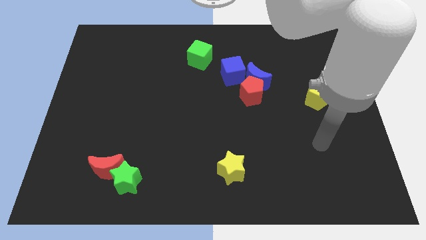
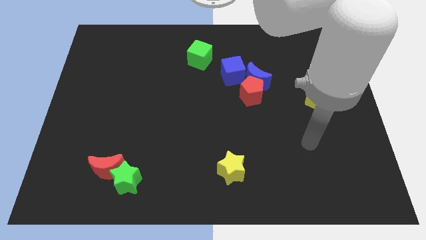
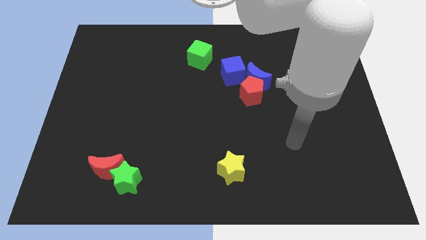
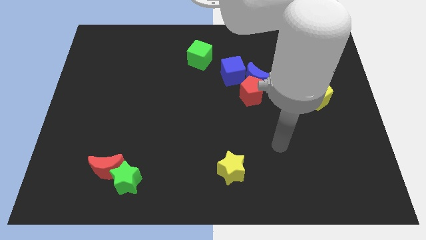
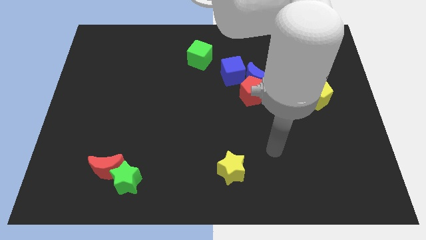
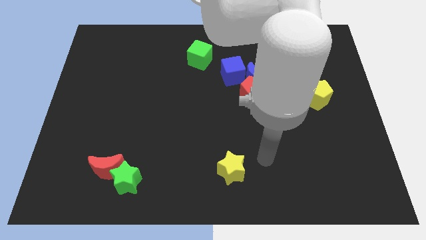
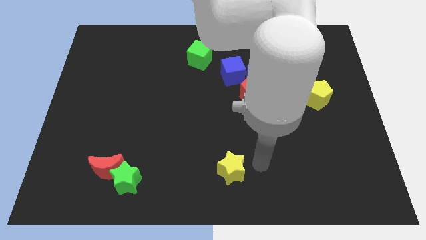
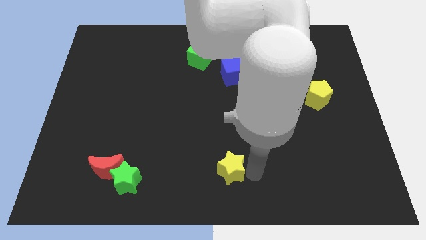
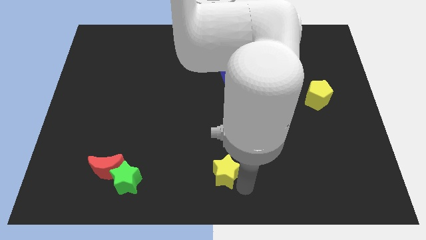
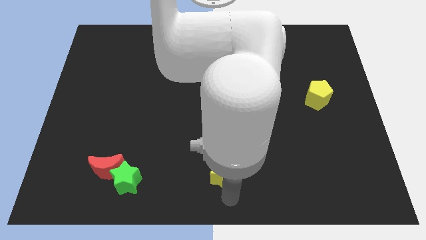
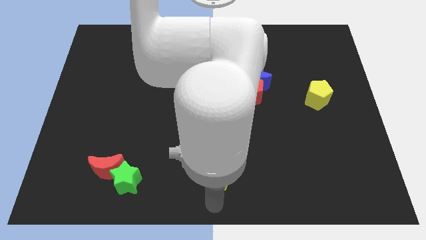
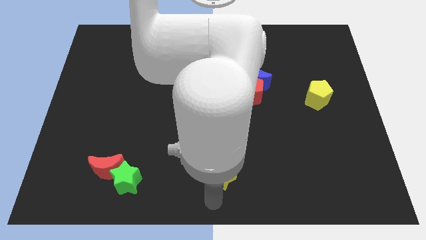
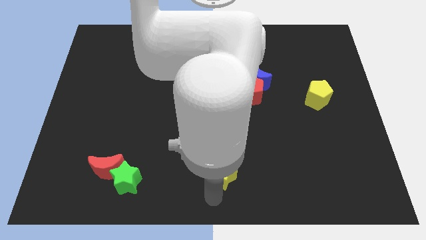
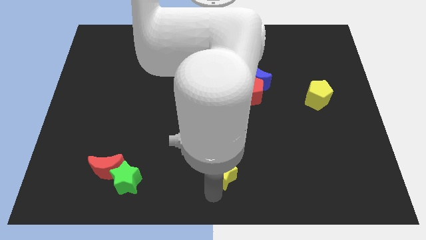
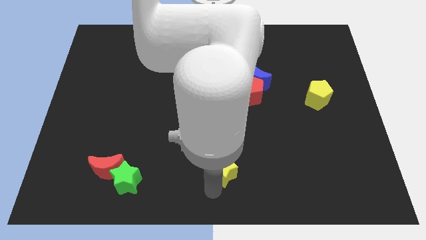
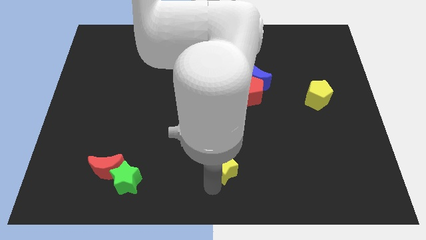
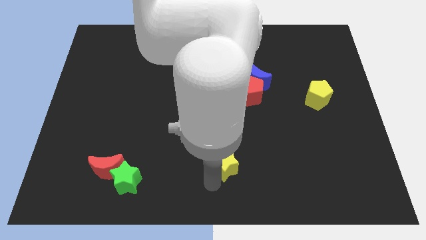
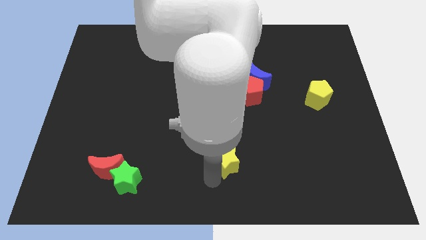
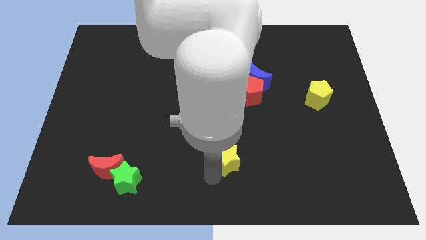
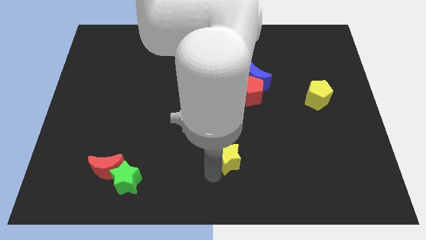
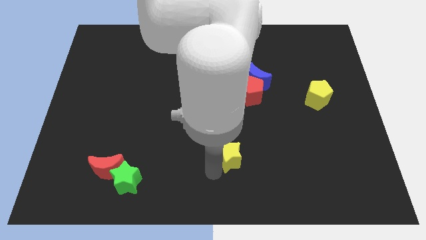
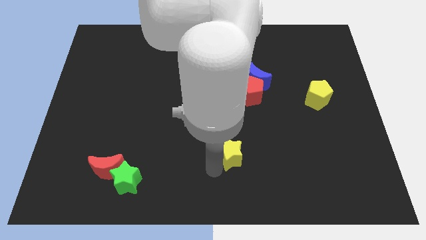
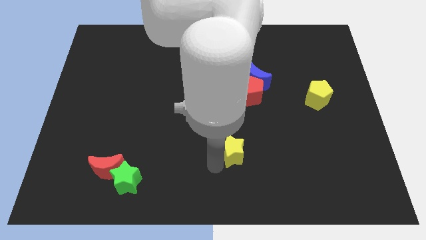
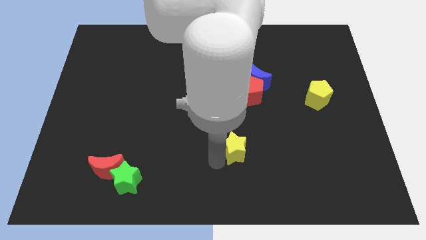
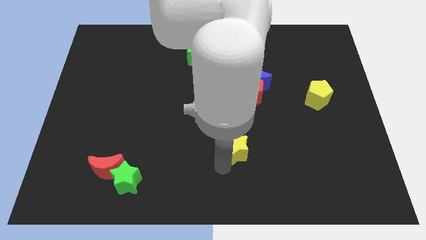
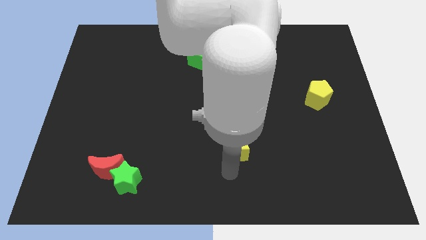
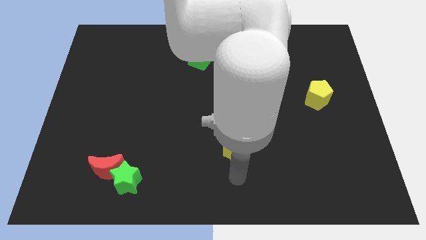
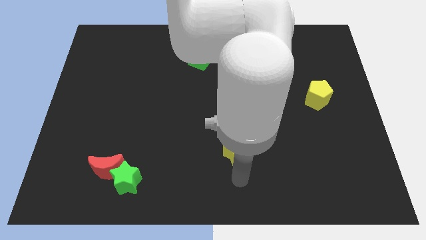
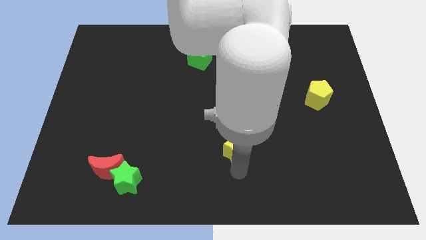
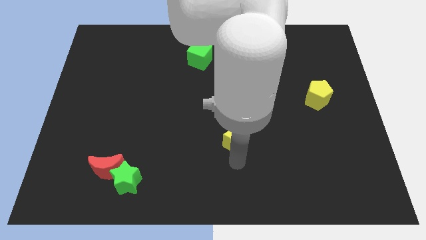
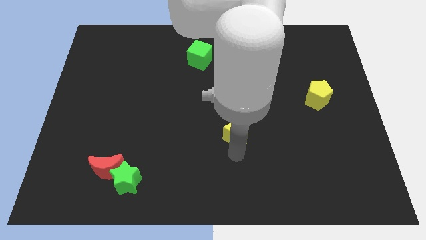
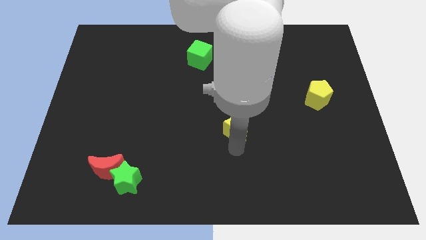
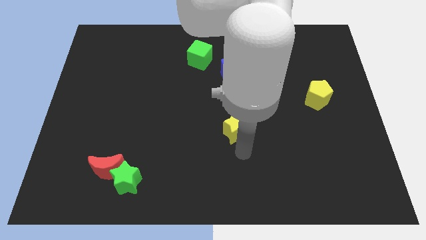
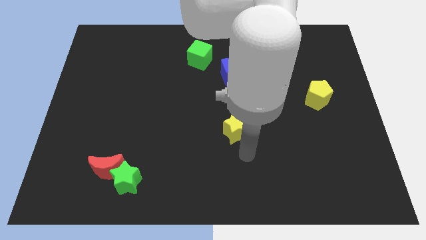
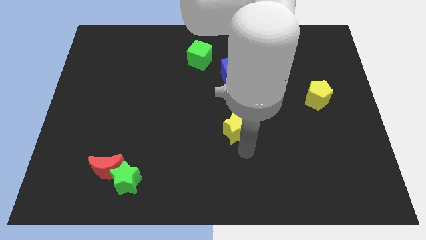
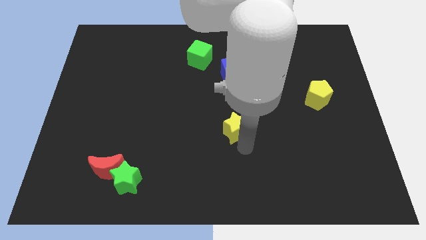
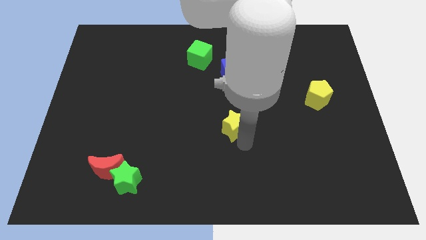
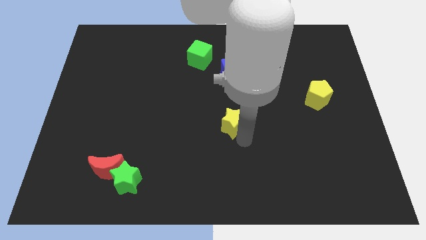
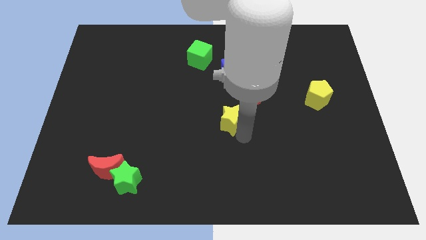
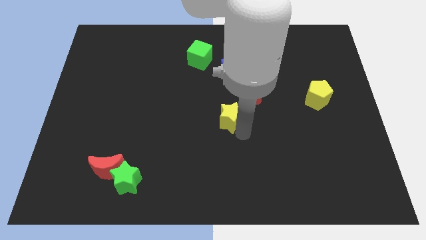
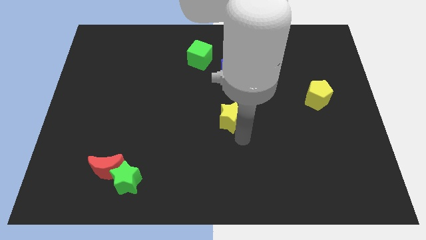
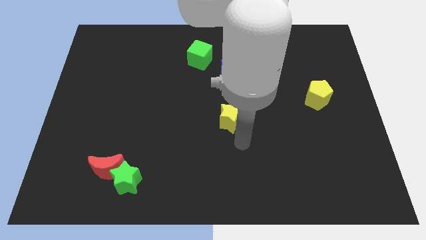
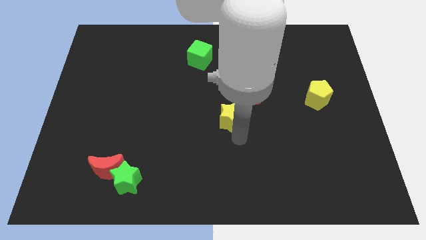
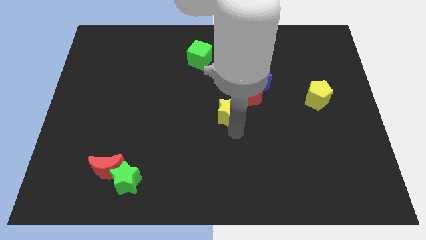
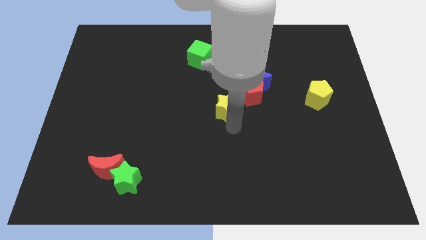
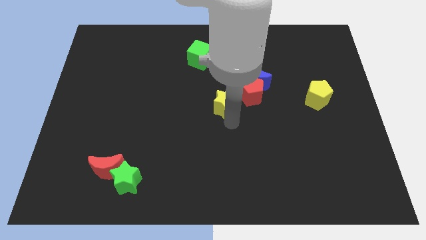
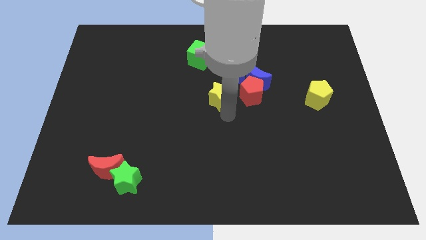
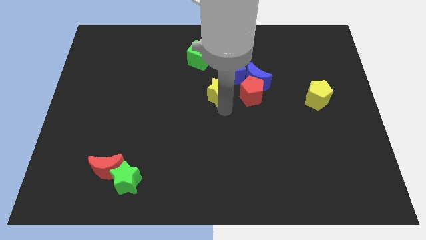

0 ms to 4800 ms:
move the yellow star up

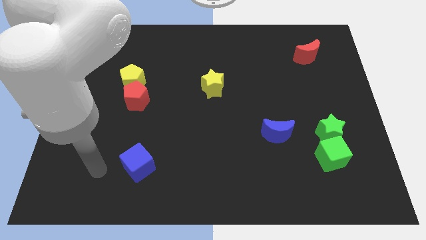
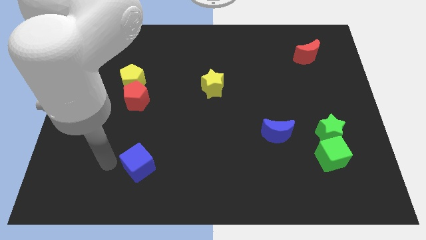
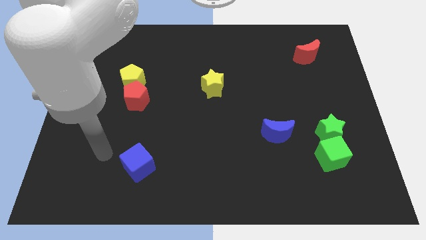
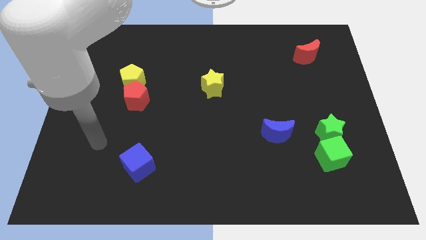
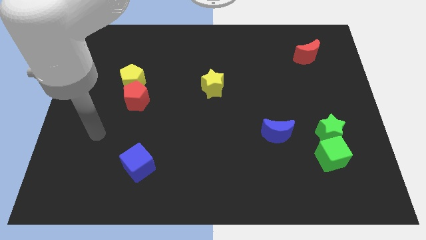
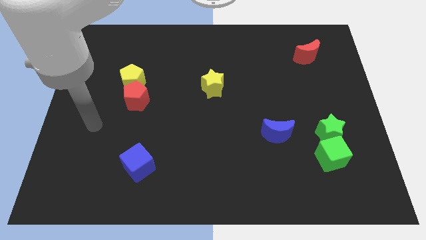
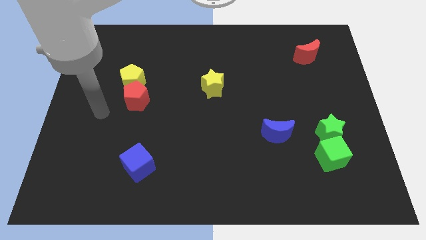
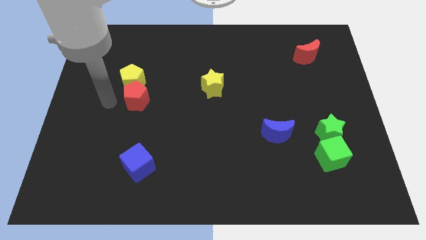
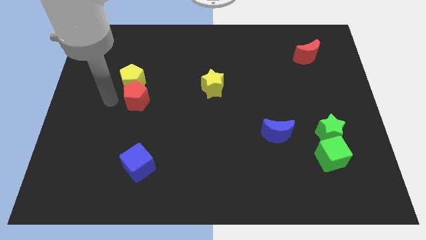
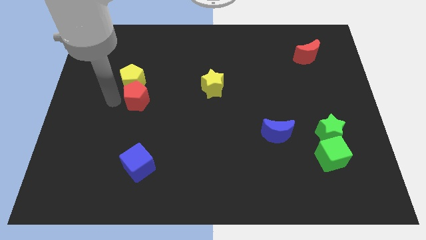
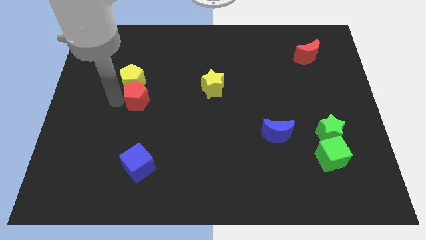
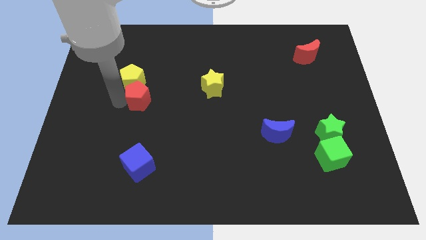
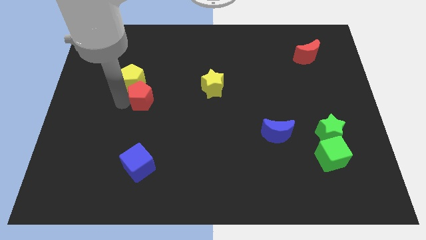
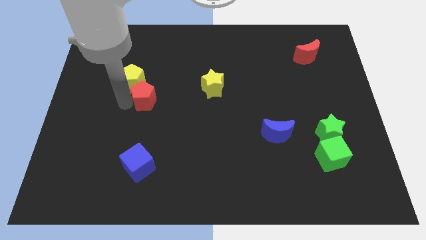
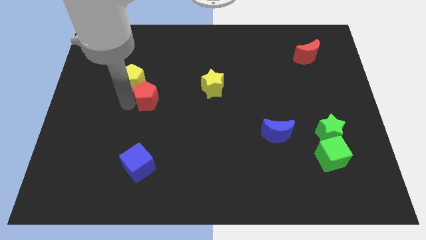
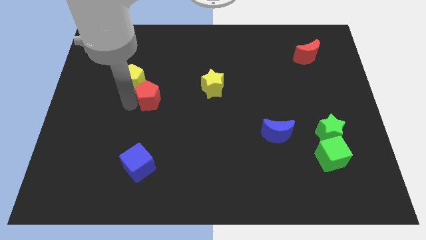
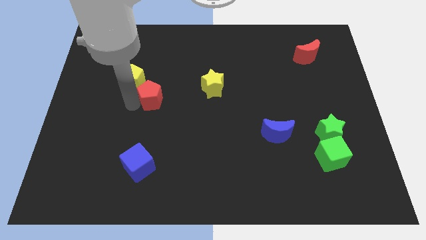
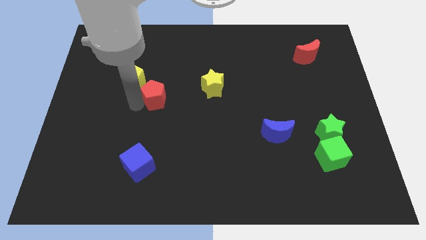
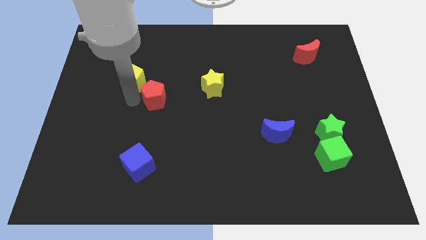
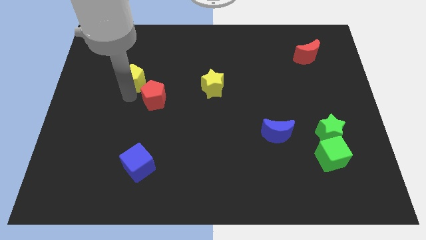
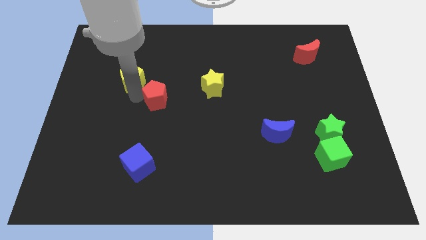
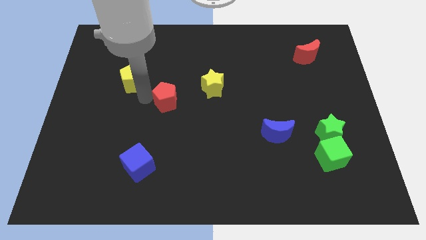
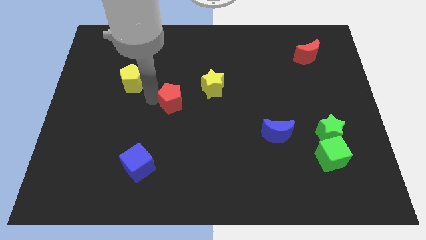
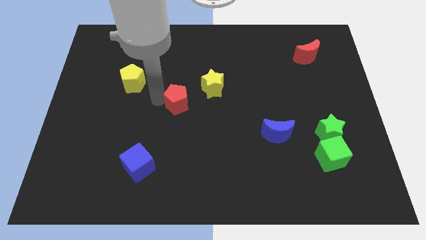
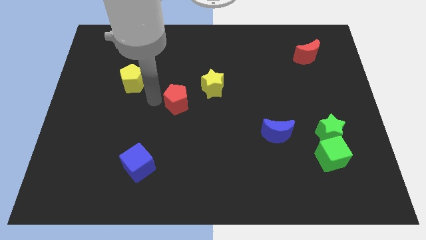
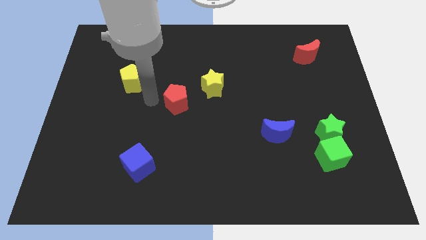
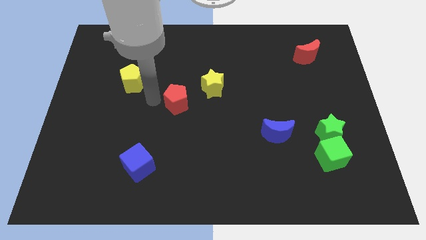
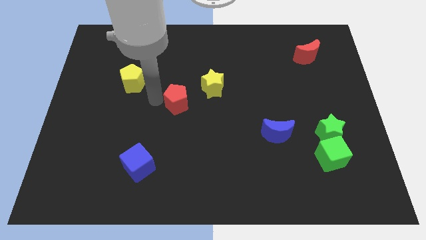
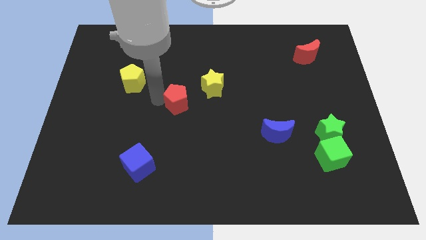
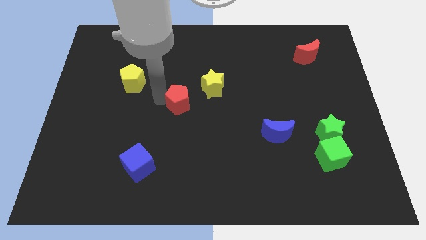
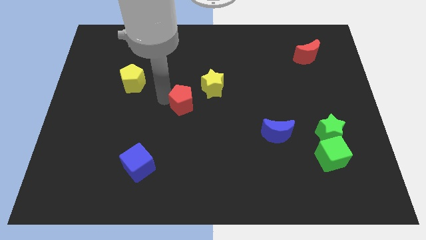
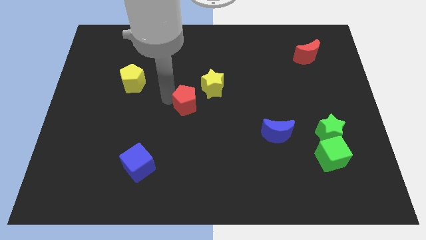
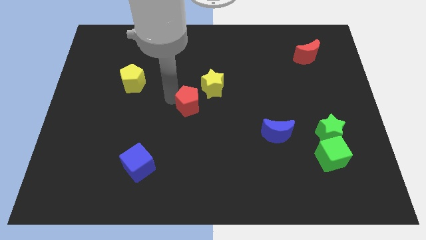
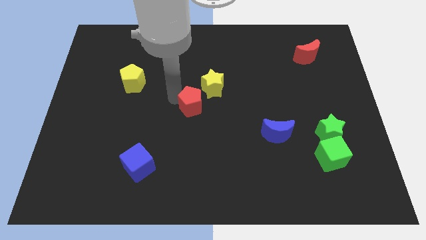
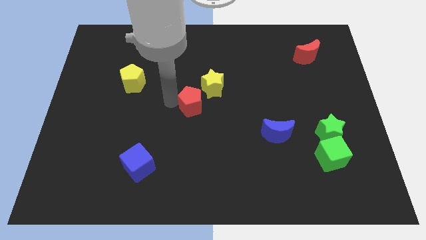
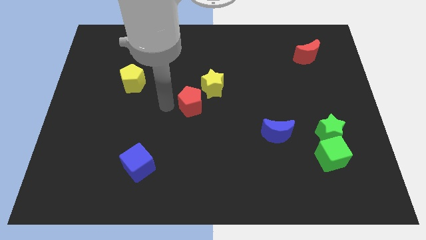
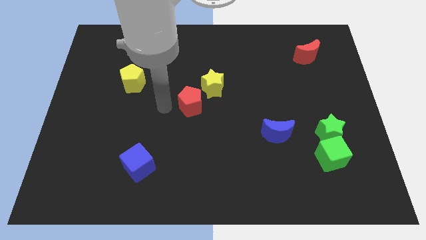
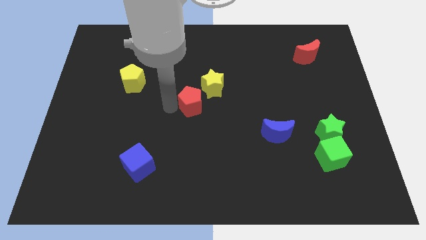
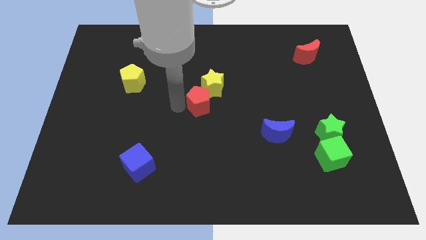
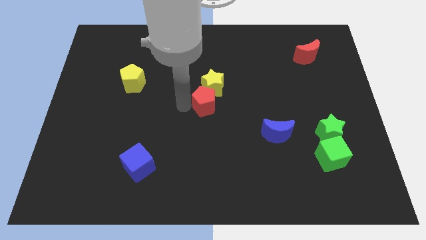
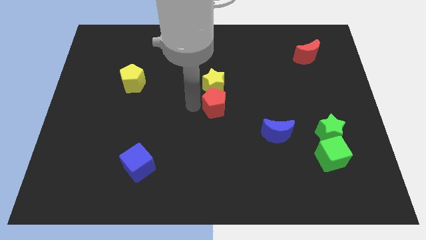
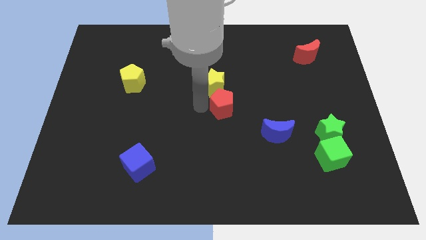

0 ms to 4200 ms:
move the red pentagon to the right
